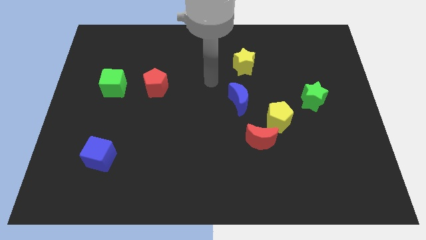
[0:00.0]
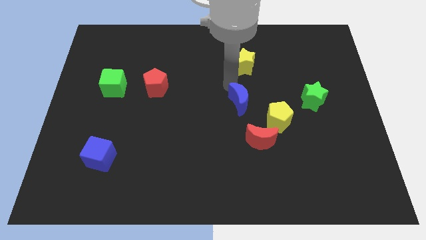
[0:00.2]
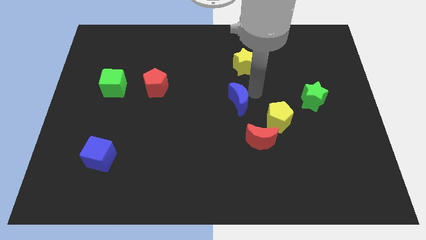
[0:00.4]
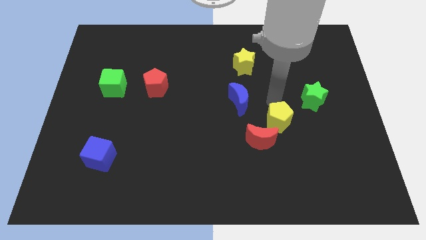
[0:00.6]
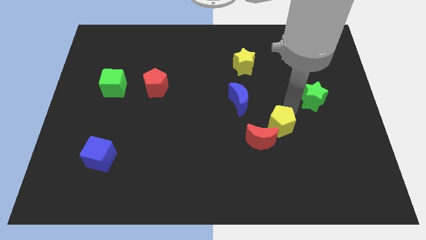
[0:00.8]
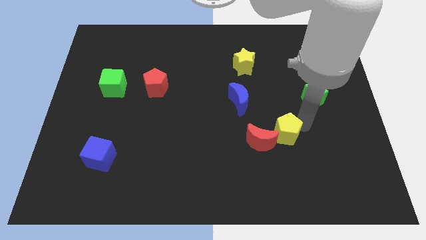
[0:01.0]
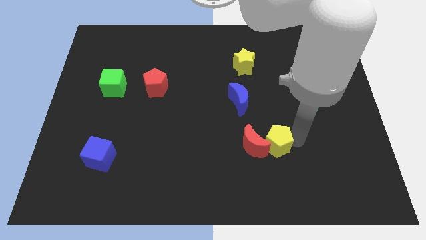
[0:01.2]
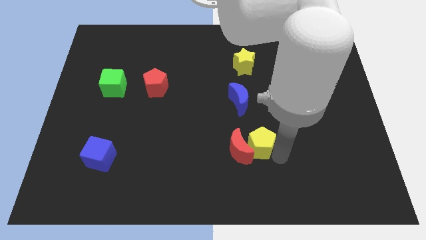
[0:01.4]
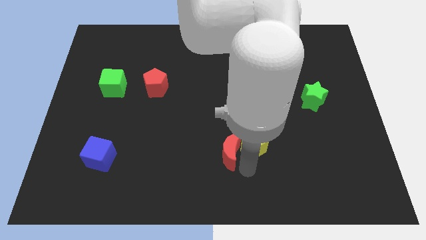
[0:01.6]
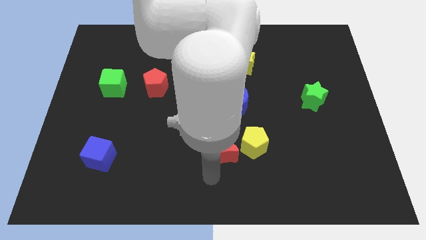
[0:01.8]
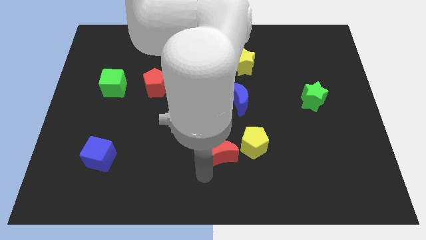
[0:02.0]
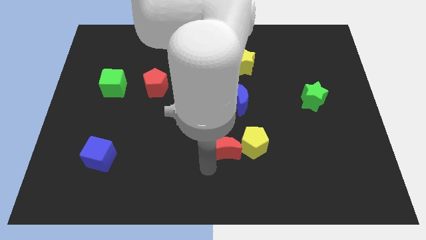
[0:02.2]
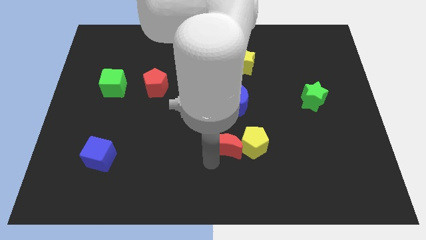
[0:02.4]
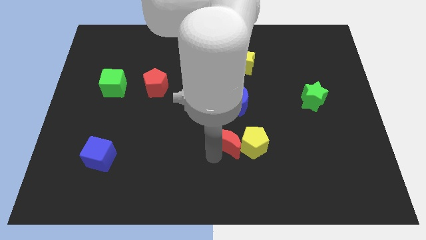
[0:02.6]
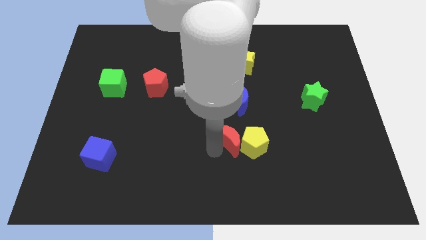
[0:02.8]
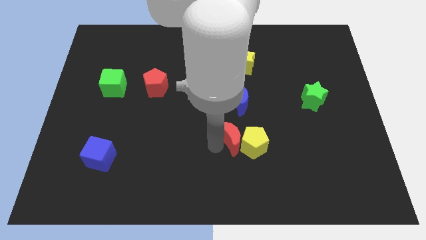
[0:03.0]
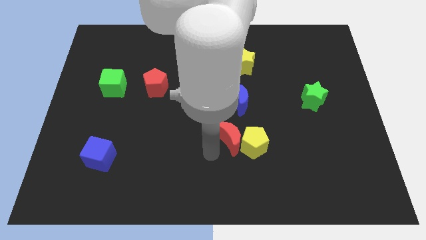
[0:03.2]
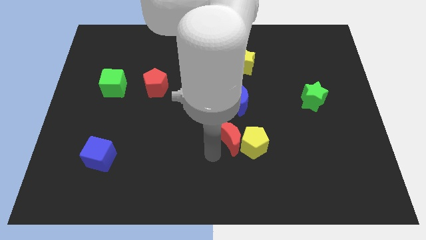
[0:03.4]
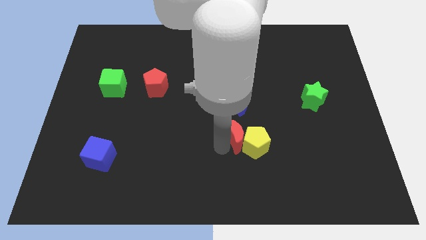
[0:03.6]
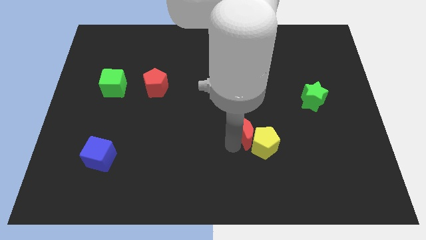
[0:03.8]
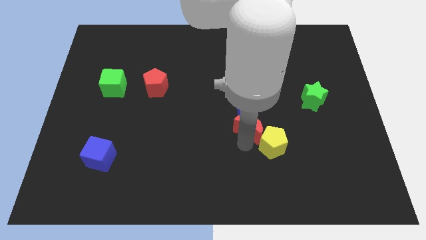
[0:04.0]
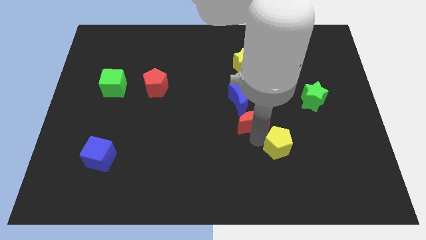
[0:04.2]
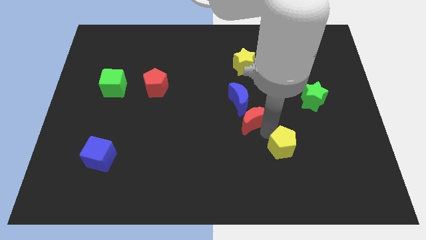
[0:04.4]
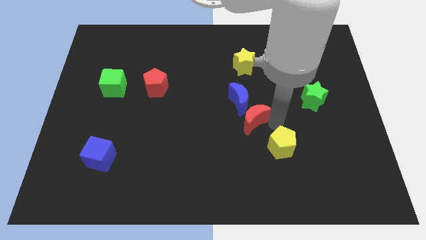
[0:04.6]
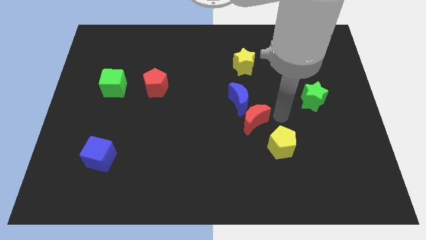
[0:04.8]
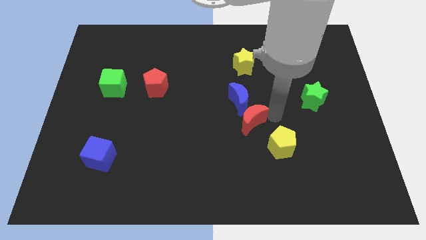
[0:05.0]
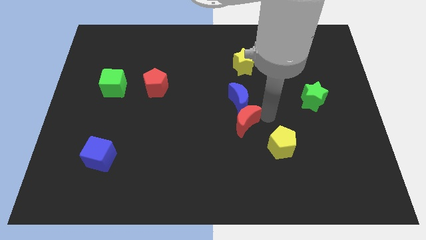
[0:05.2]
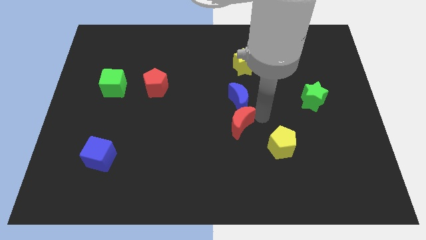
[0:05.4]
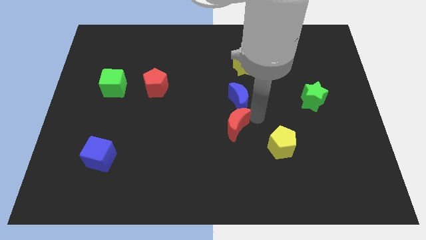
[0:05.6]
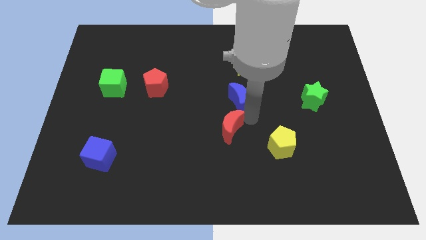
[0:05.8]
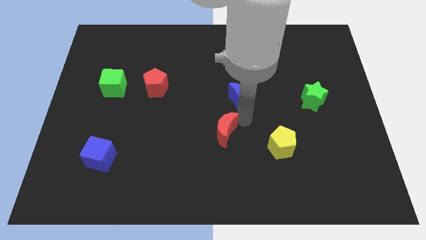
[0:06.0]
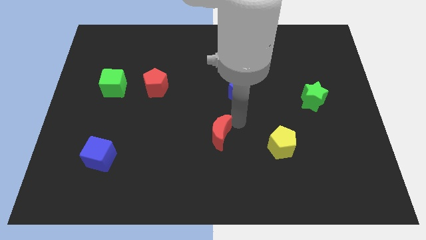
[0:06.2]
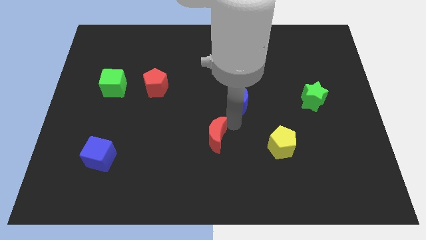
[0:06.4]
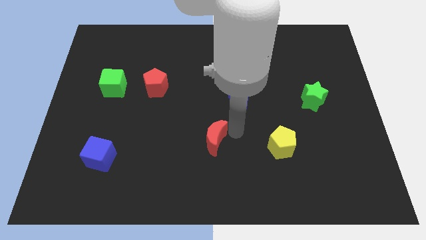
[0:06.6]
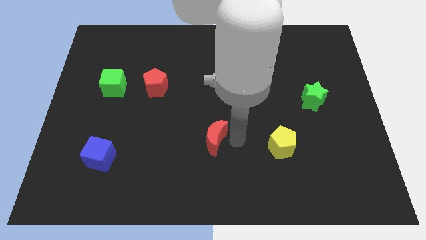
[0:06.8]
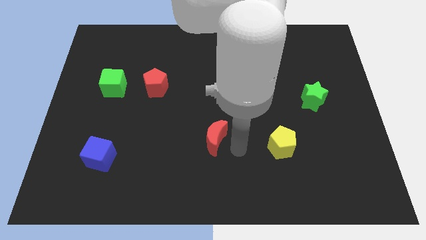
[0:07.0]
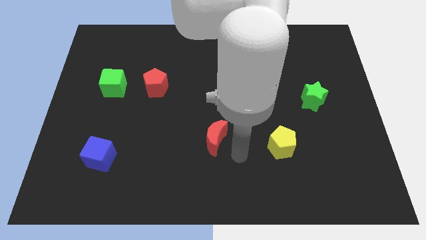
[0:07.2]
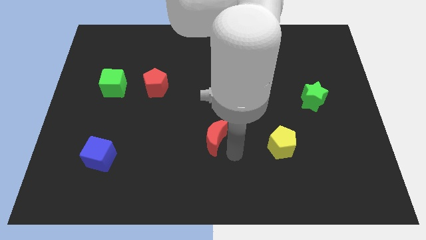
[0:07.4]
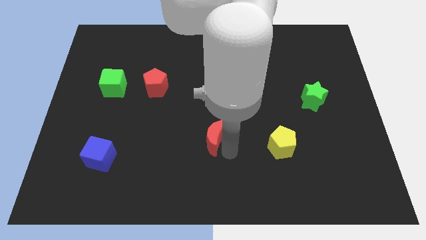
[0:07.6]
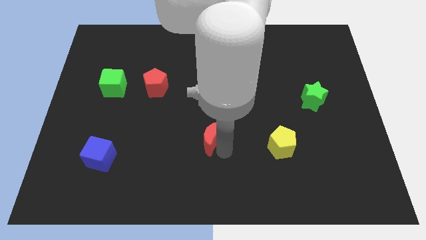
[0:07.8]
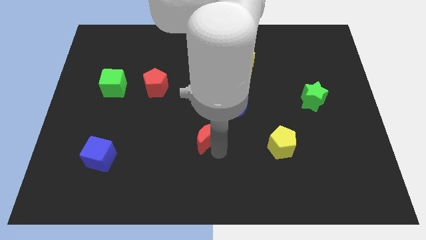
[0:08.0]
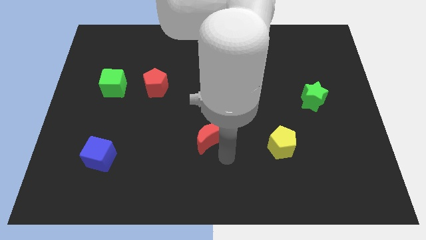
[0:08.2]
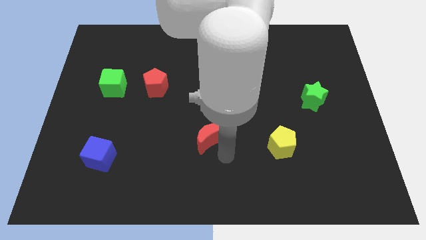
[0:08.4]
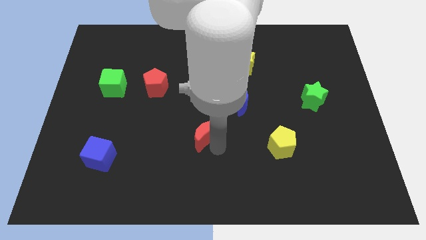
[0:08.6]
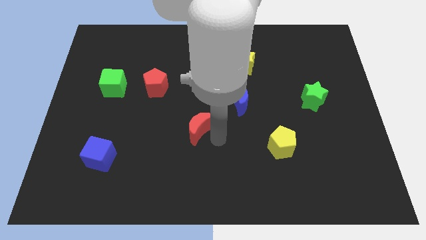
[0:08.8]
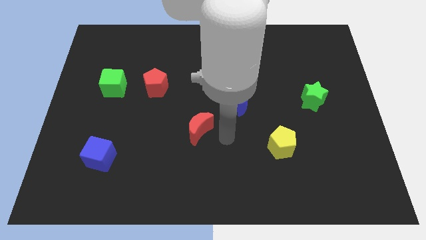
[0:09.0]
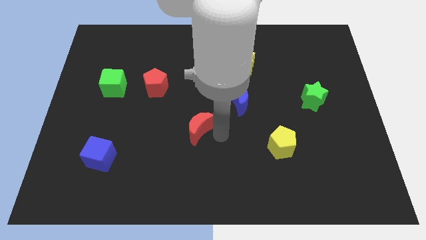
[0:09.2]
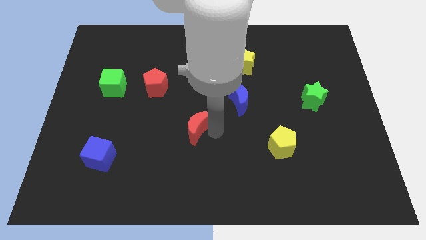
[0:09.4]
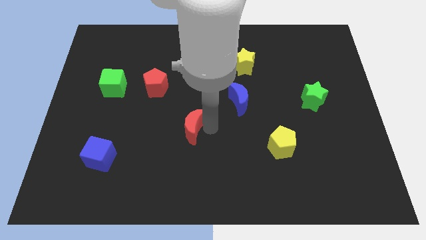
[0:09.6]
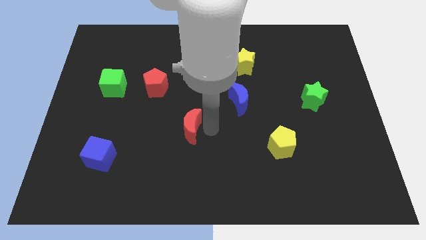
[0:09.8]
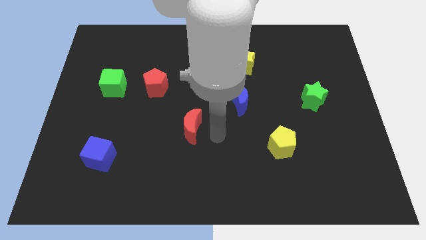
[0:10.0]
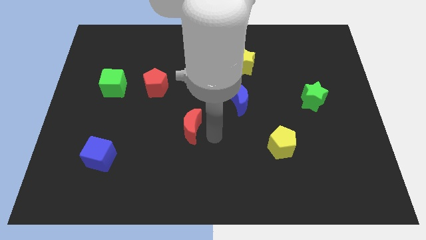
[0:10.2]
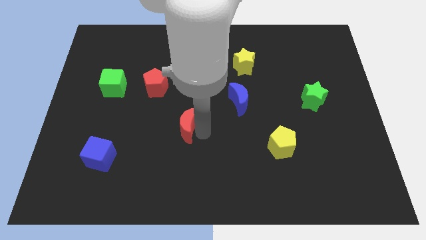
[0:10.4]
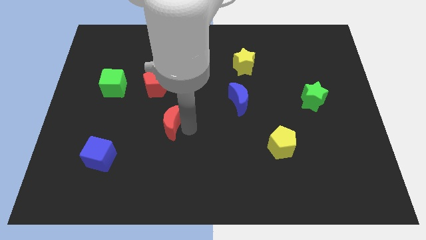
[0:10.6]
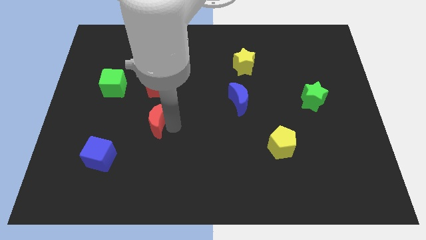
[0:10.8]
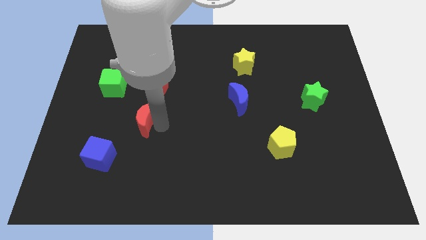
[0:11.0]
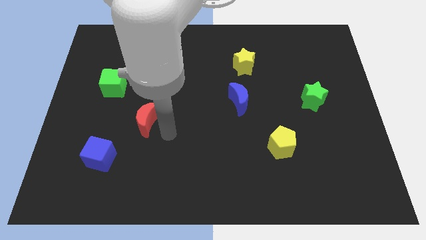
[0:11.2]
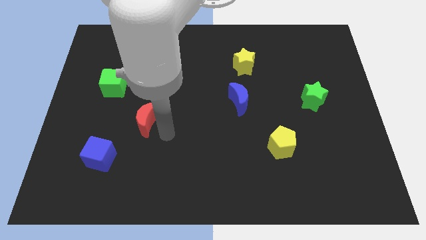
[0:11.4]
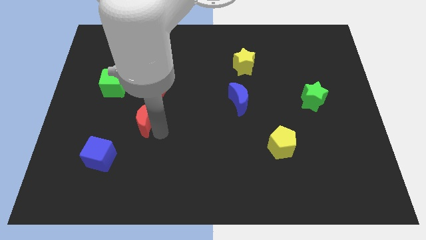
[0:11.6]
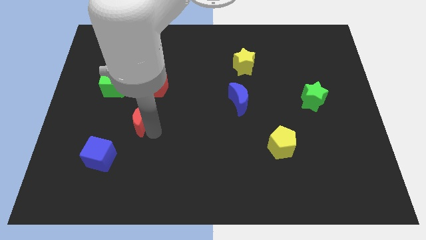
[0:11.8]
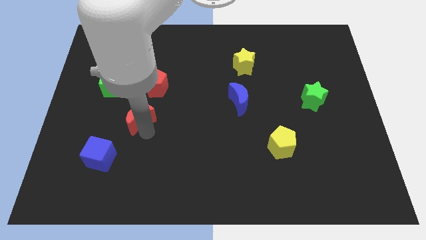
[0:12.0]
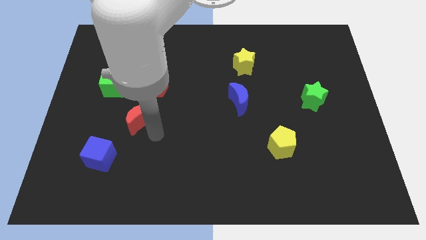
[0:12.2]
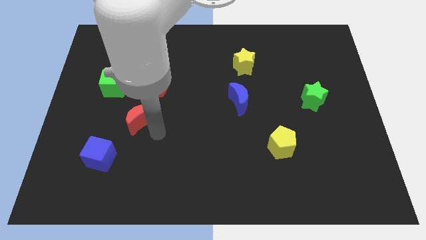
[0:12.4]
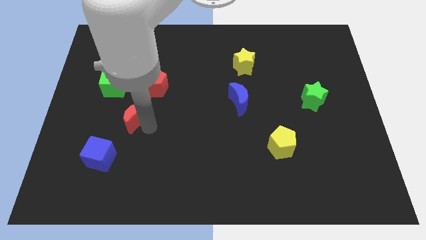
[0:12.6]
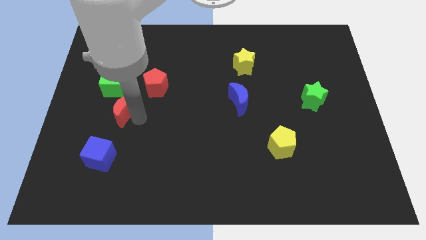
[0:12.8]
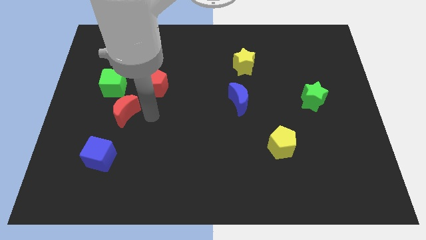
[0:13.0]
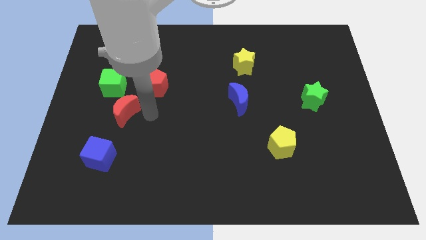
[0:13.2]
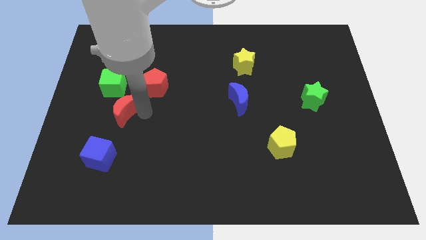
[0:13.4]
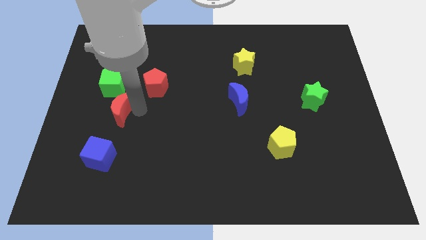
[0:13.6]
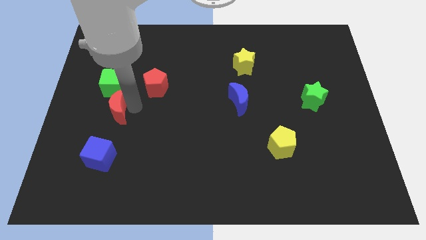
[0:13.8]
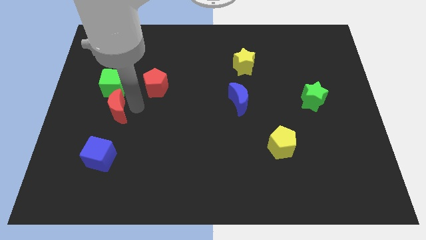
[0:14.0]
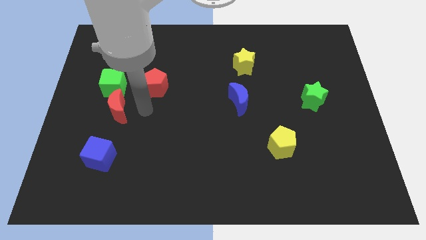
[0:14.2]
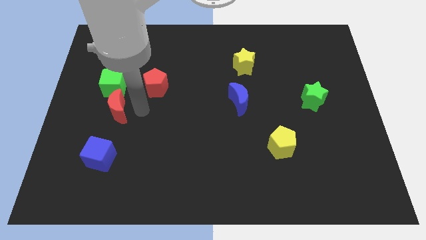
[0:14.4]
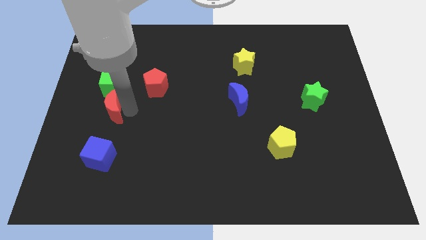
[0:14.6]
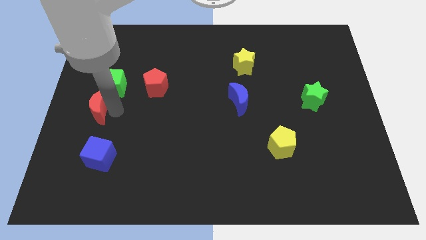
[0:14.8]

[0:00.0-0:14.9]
put the red moon to the left side of the board

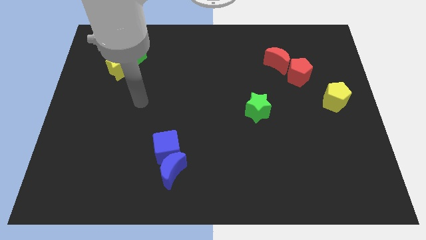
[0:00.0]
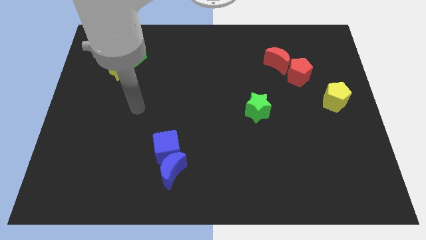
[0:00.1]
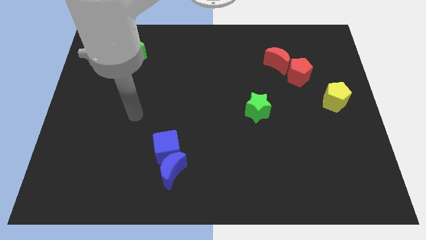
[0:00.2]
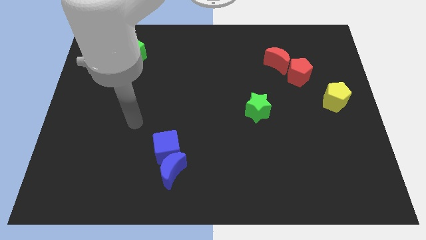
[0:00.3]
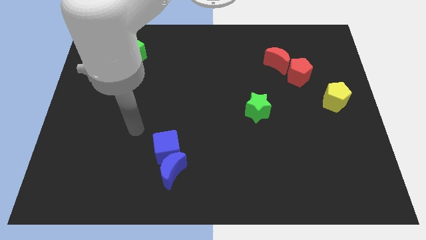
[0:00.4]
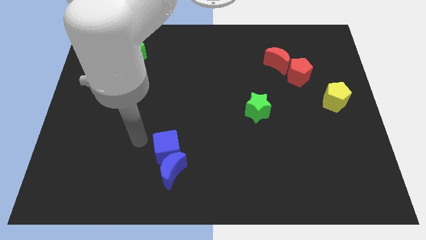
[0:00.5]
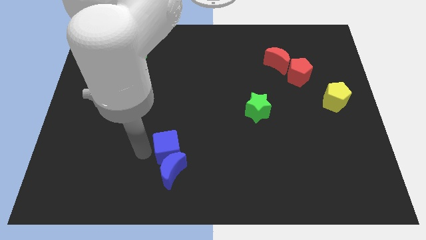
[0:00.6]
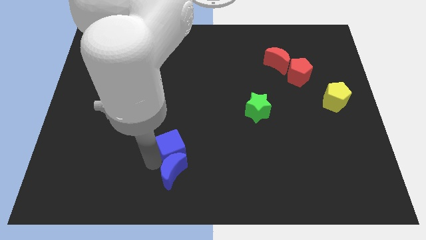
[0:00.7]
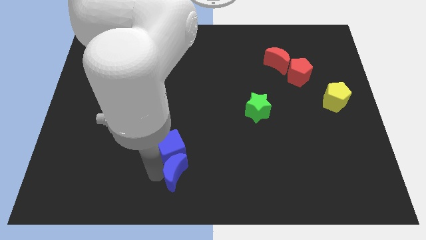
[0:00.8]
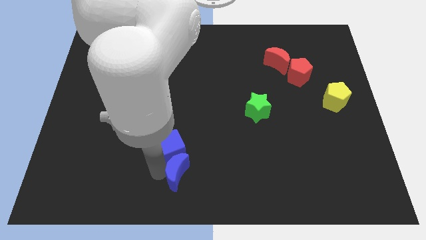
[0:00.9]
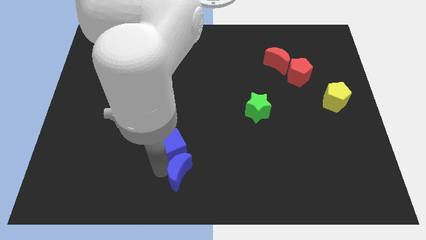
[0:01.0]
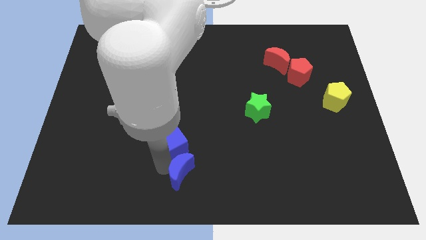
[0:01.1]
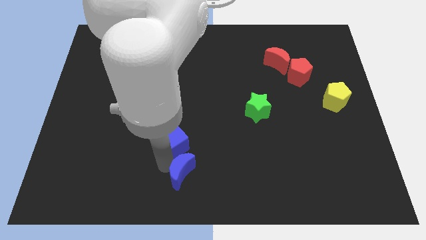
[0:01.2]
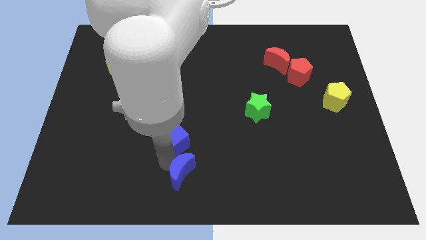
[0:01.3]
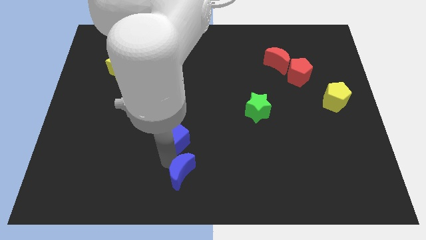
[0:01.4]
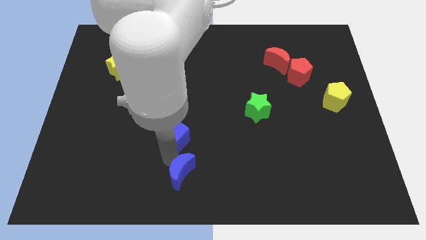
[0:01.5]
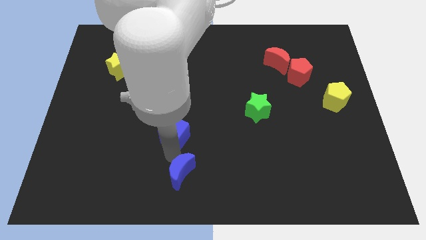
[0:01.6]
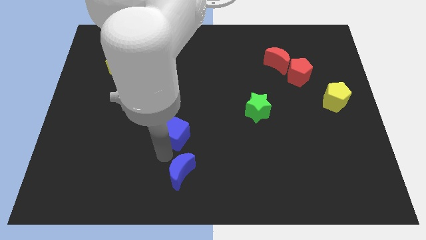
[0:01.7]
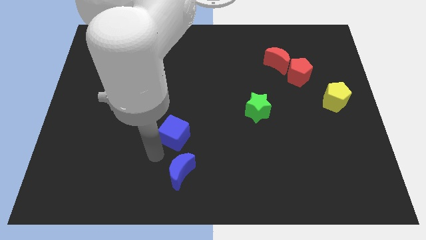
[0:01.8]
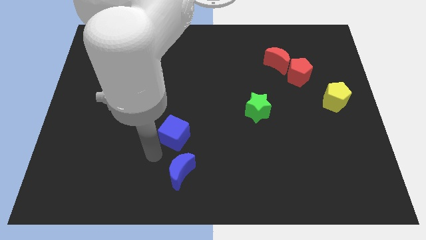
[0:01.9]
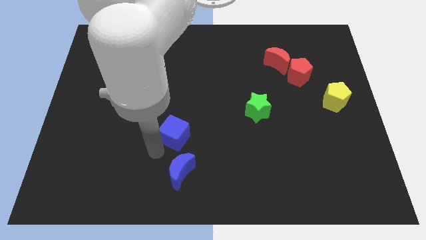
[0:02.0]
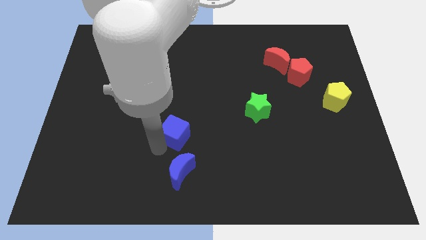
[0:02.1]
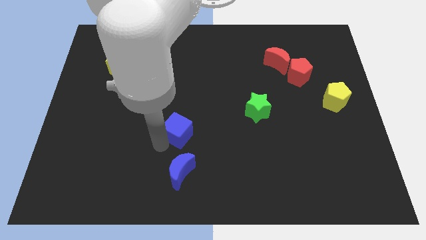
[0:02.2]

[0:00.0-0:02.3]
slide the blue cube to the center
